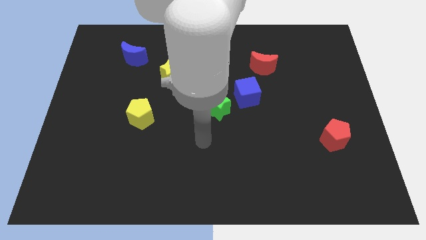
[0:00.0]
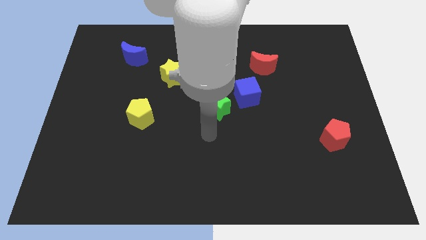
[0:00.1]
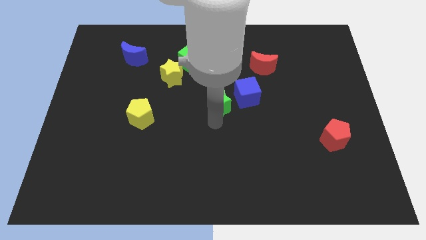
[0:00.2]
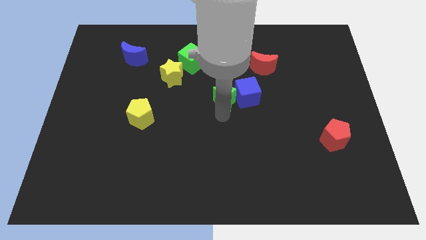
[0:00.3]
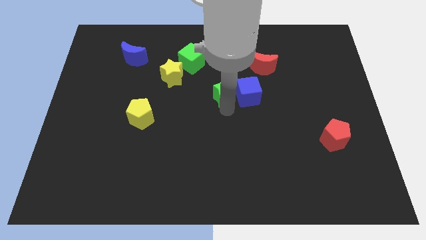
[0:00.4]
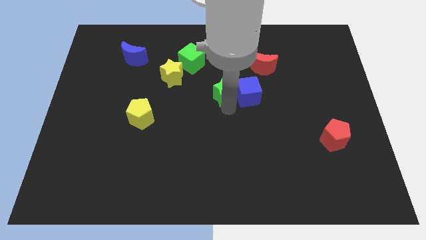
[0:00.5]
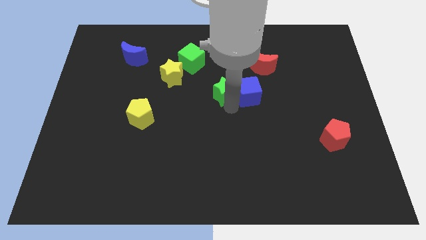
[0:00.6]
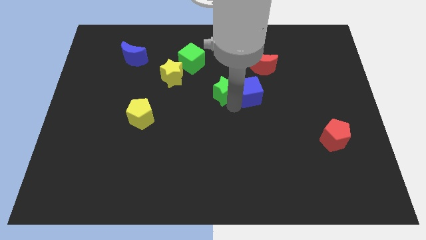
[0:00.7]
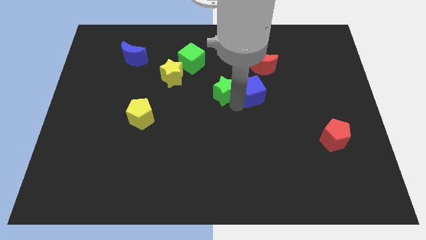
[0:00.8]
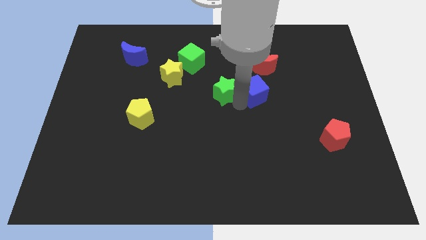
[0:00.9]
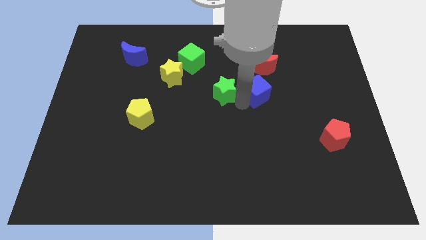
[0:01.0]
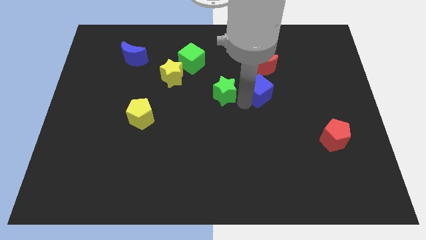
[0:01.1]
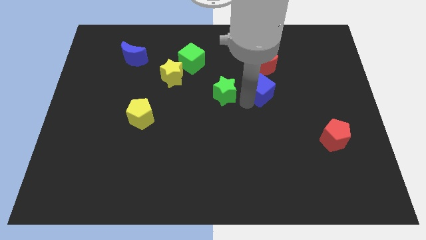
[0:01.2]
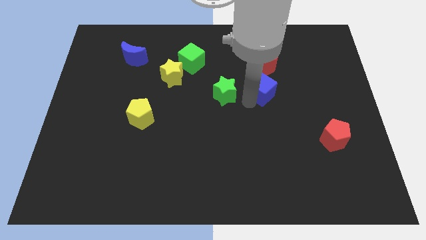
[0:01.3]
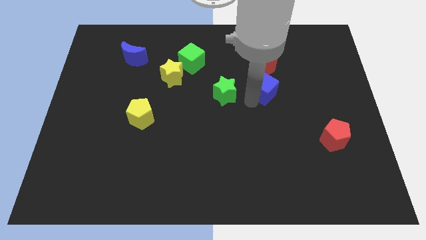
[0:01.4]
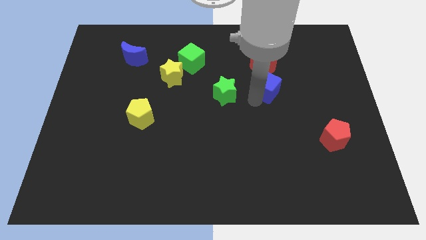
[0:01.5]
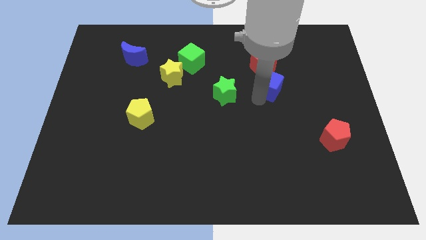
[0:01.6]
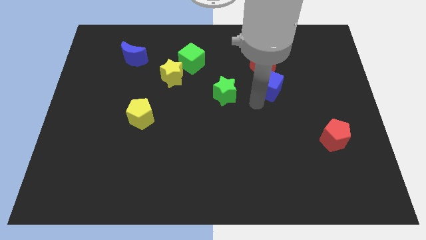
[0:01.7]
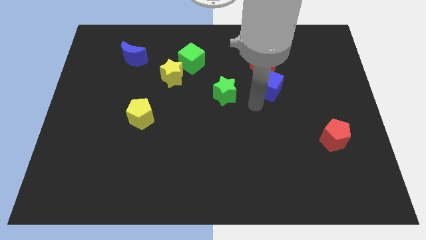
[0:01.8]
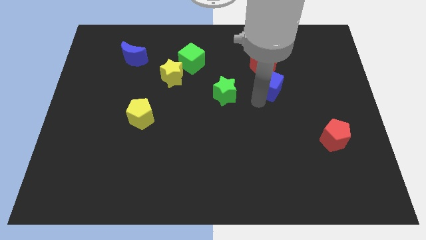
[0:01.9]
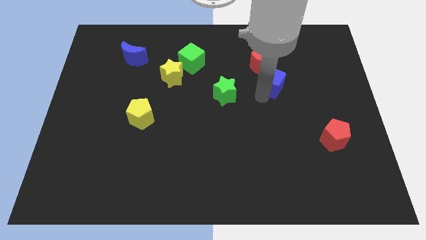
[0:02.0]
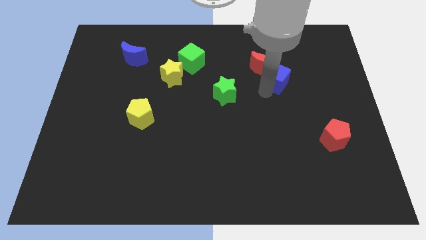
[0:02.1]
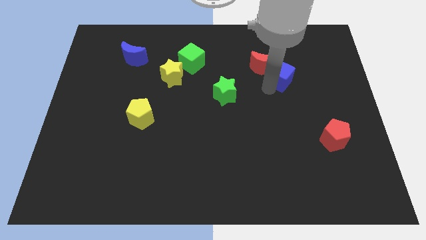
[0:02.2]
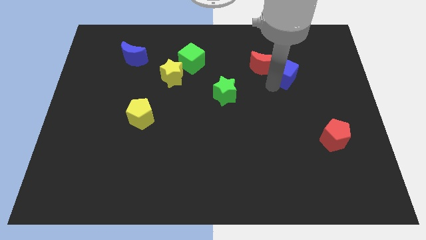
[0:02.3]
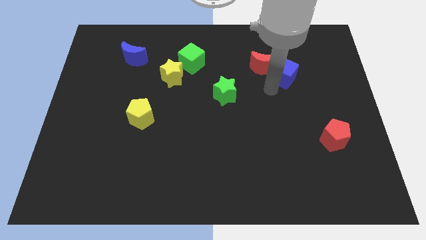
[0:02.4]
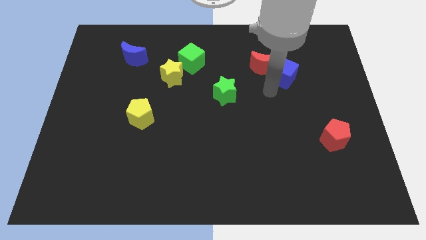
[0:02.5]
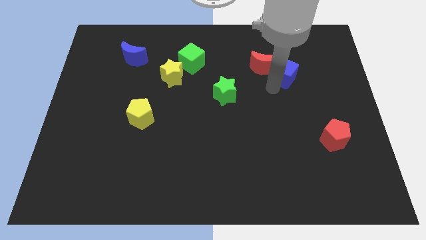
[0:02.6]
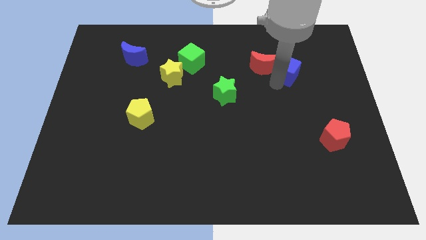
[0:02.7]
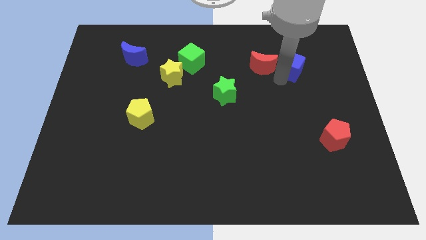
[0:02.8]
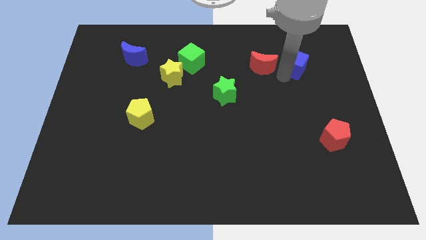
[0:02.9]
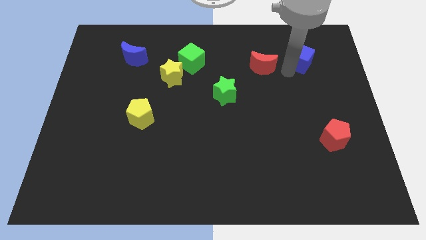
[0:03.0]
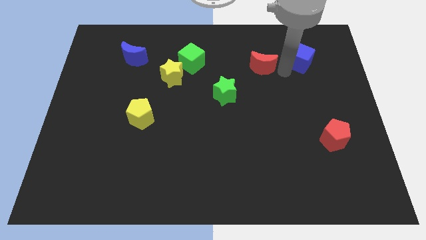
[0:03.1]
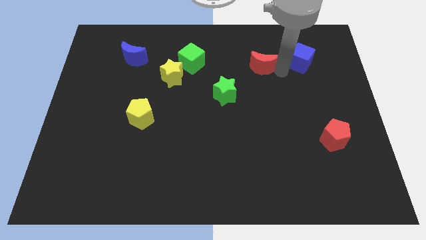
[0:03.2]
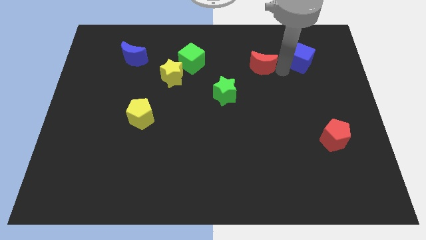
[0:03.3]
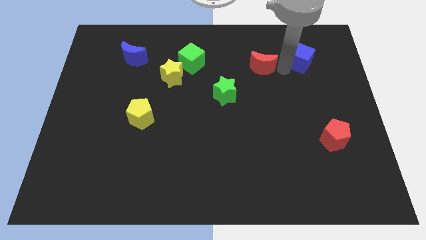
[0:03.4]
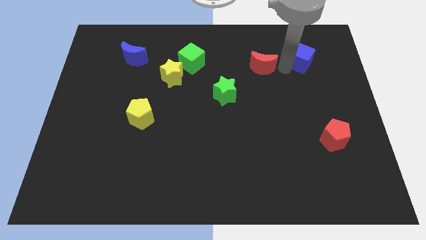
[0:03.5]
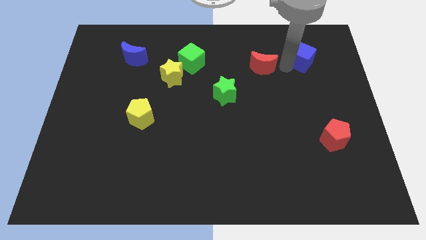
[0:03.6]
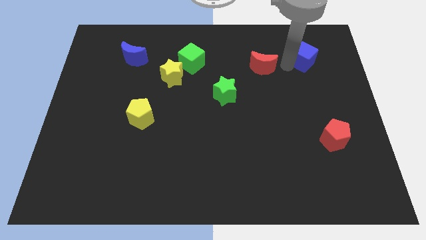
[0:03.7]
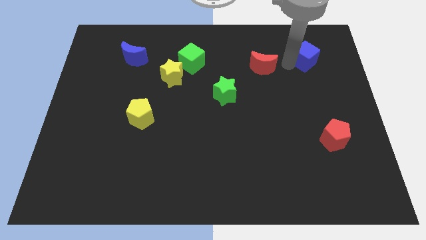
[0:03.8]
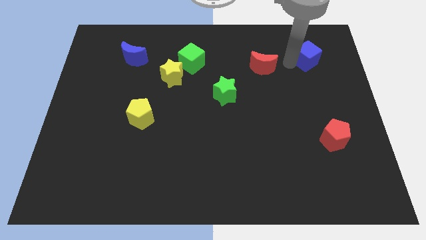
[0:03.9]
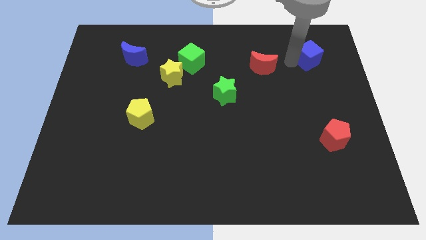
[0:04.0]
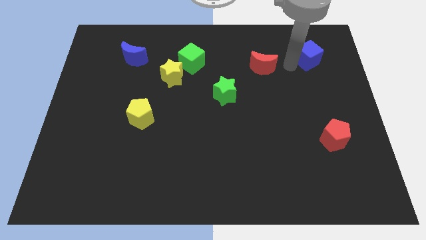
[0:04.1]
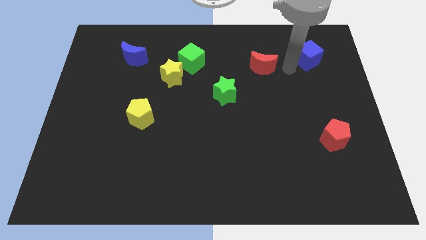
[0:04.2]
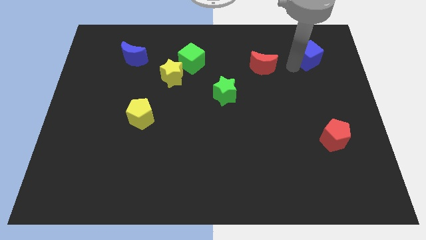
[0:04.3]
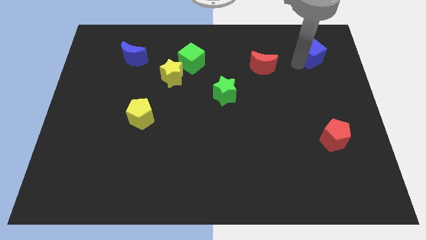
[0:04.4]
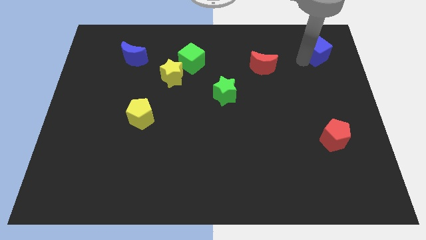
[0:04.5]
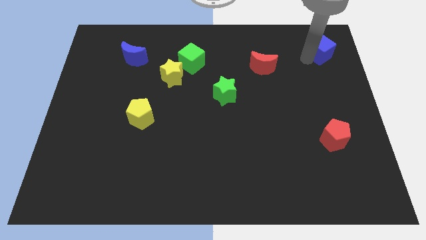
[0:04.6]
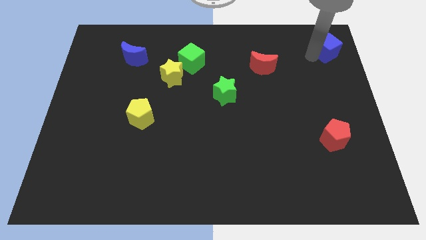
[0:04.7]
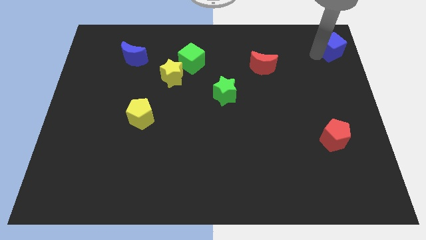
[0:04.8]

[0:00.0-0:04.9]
put the blue cube to the top right

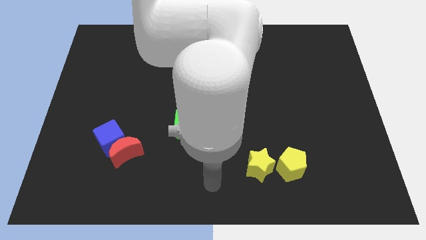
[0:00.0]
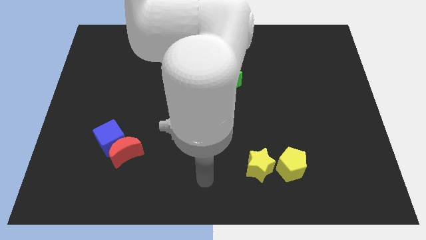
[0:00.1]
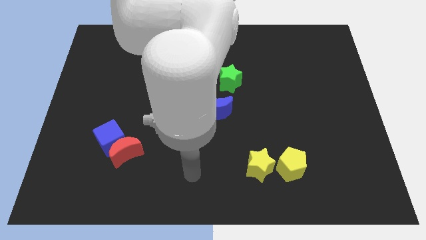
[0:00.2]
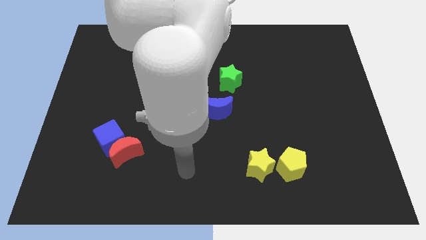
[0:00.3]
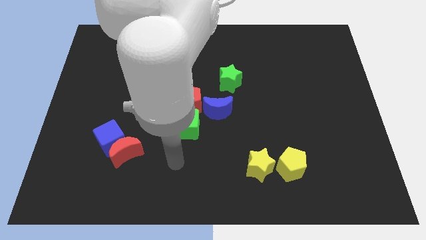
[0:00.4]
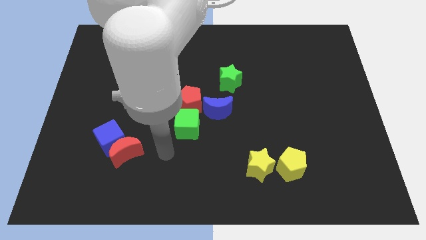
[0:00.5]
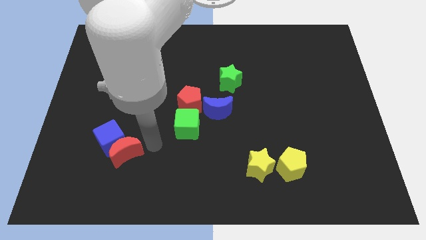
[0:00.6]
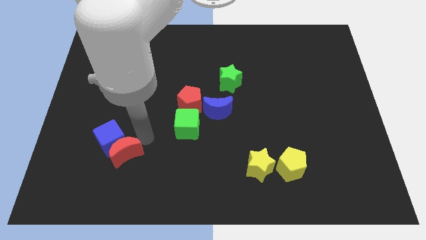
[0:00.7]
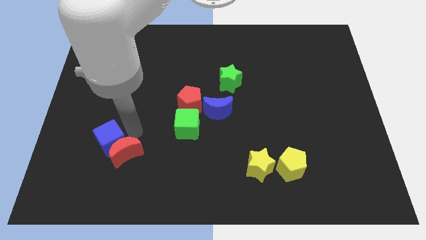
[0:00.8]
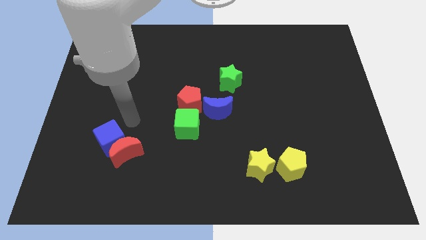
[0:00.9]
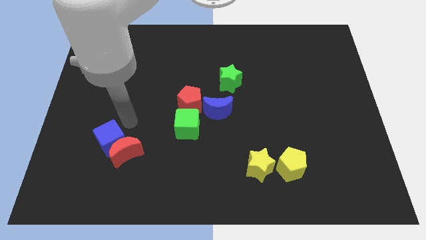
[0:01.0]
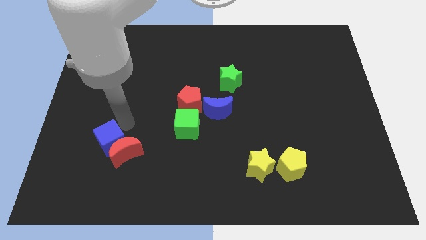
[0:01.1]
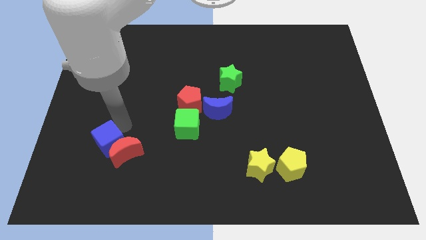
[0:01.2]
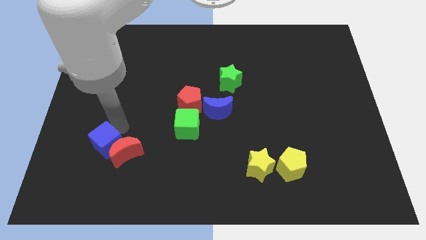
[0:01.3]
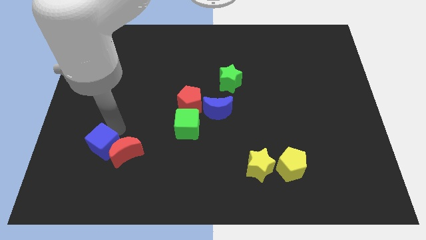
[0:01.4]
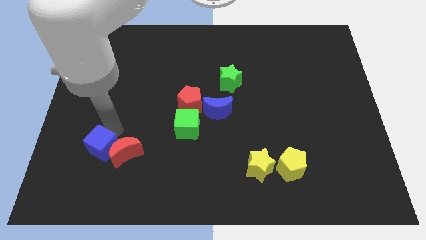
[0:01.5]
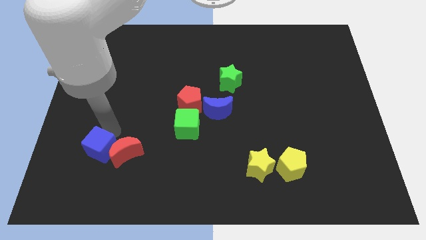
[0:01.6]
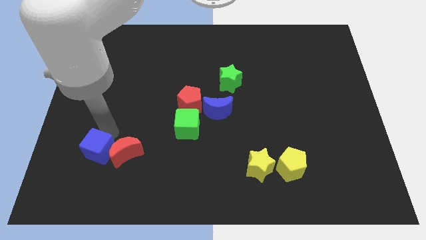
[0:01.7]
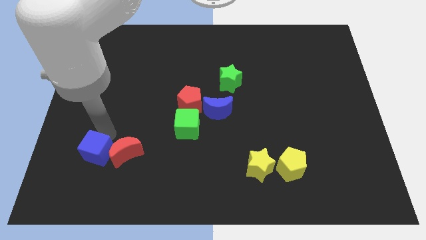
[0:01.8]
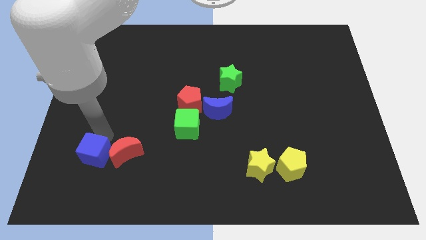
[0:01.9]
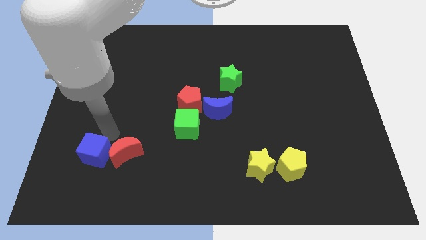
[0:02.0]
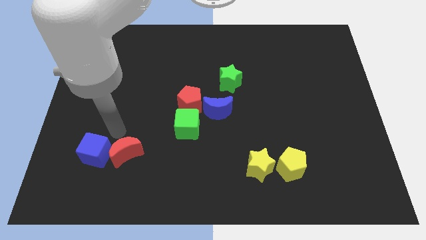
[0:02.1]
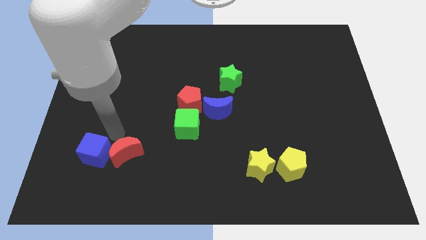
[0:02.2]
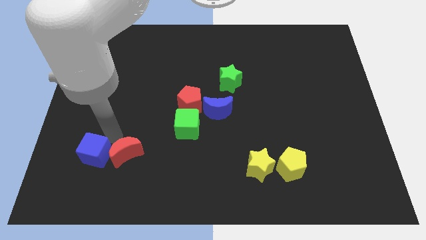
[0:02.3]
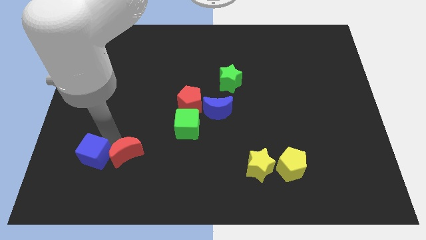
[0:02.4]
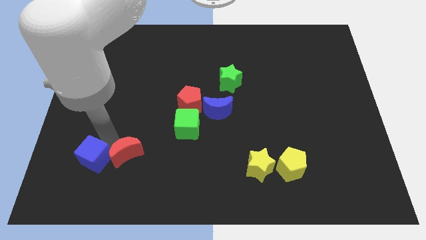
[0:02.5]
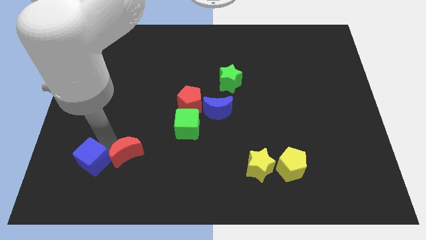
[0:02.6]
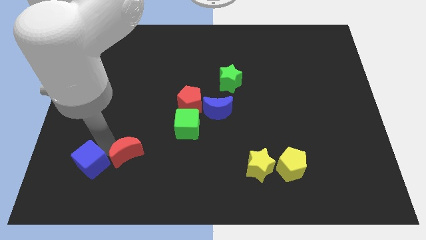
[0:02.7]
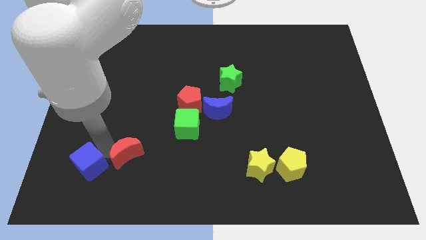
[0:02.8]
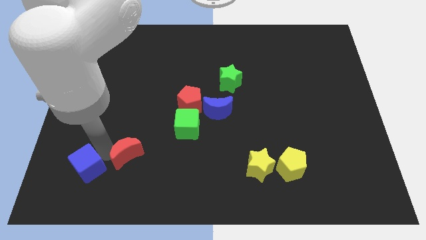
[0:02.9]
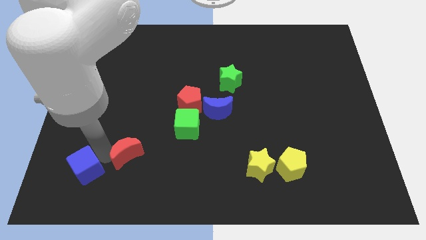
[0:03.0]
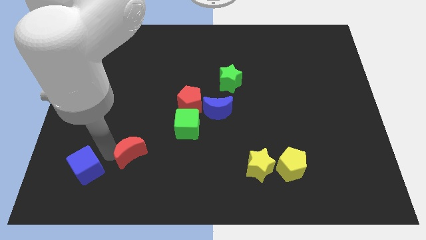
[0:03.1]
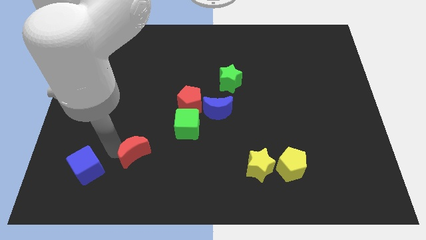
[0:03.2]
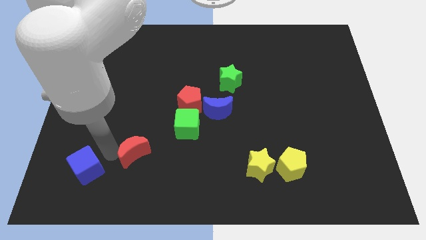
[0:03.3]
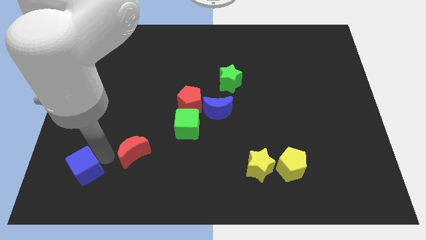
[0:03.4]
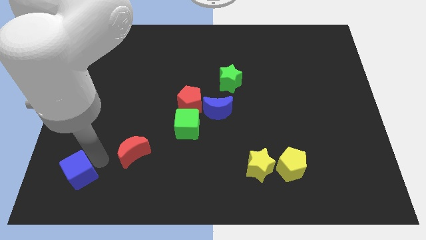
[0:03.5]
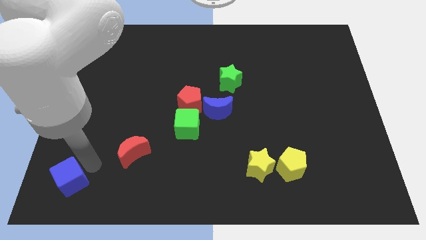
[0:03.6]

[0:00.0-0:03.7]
slide the blue cube to the bottom left corner
